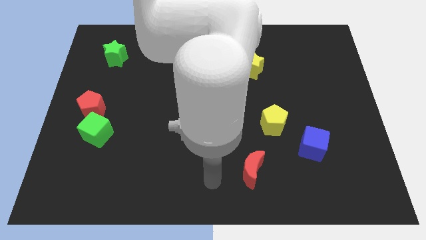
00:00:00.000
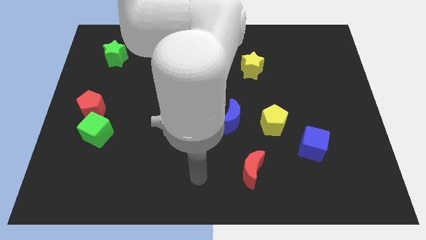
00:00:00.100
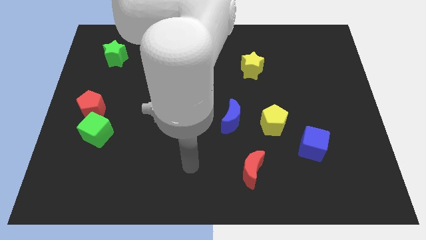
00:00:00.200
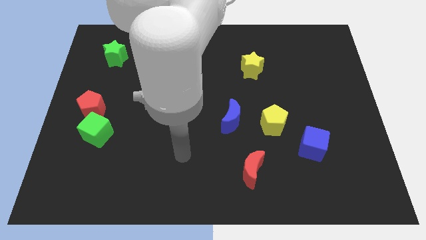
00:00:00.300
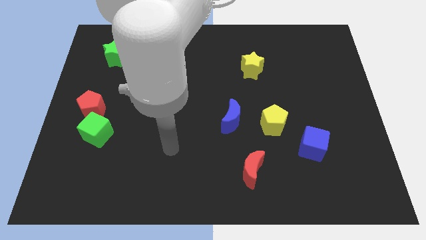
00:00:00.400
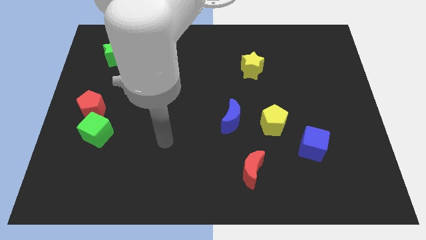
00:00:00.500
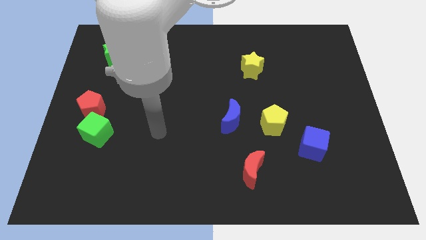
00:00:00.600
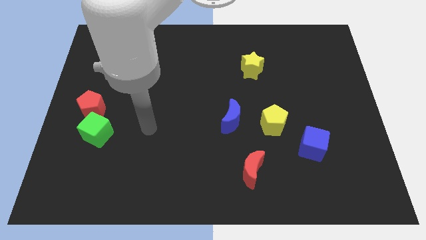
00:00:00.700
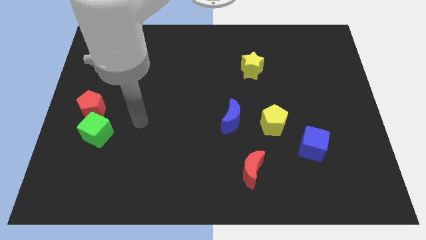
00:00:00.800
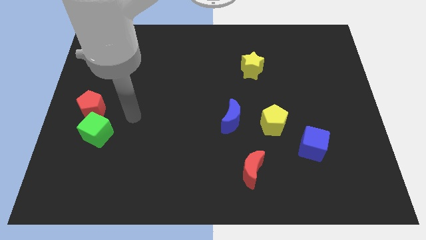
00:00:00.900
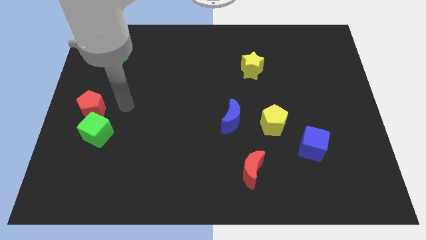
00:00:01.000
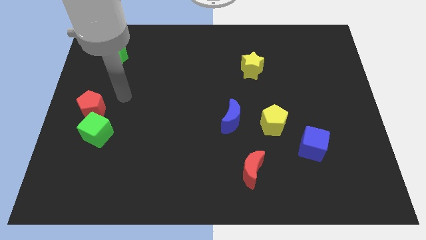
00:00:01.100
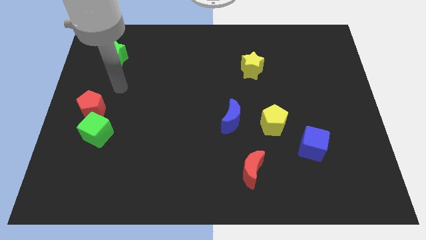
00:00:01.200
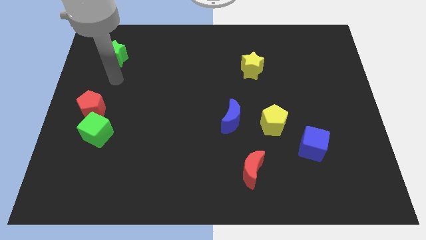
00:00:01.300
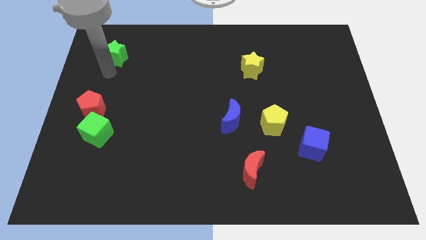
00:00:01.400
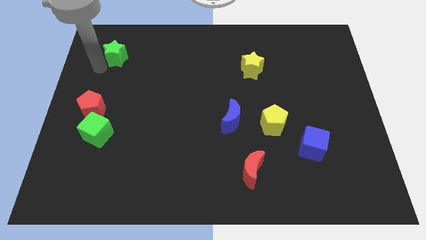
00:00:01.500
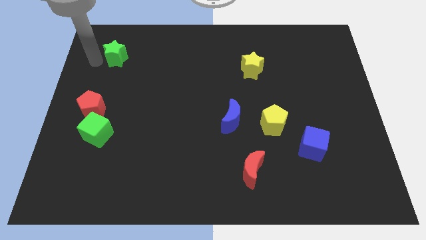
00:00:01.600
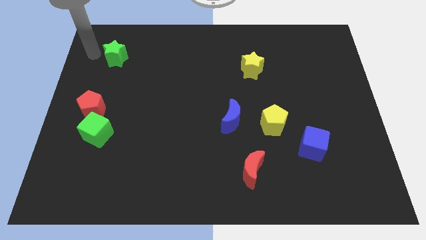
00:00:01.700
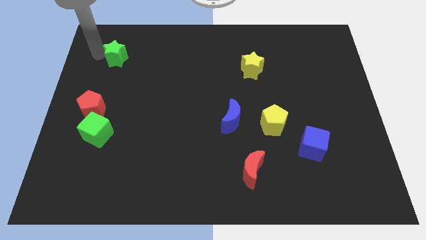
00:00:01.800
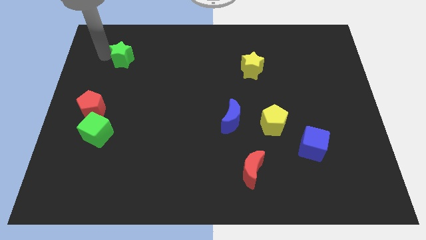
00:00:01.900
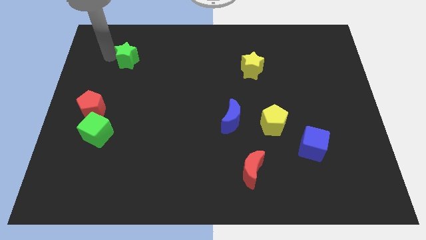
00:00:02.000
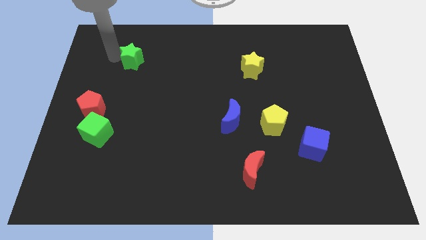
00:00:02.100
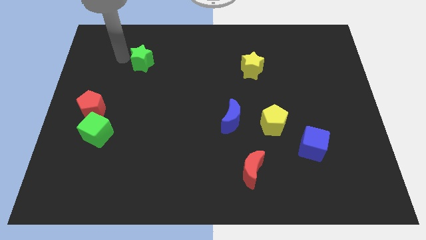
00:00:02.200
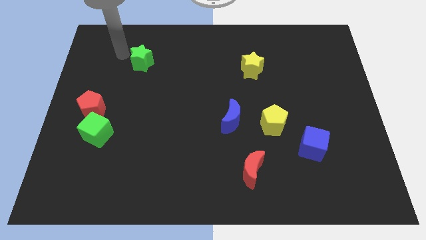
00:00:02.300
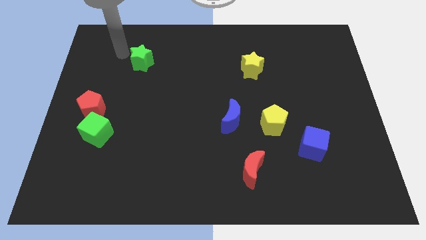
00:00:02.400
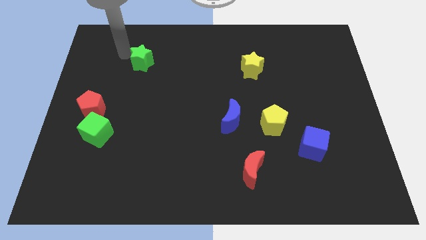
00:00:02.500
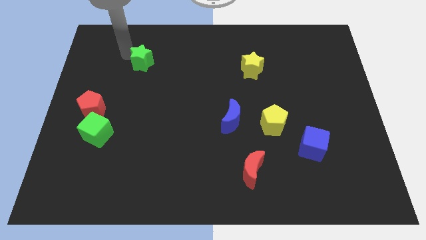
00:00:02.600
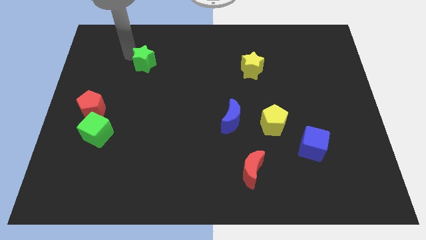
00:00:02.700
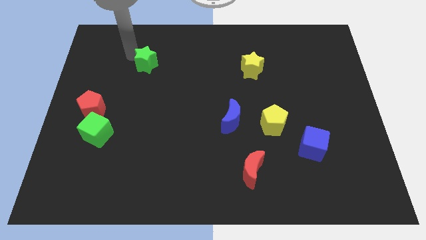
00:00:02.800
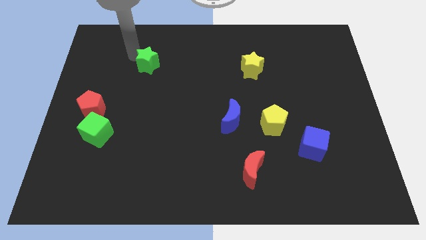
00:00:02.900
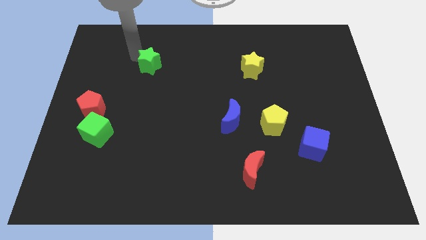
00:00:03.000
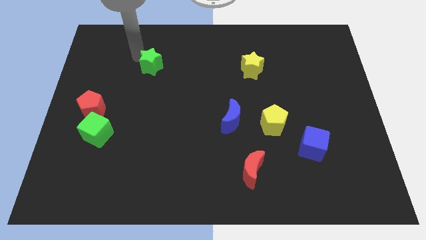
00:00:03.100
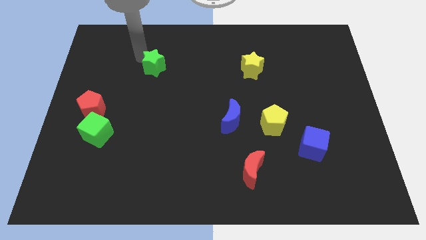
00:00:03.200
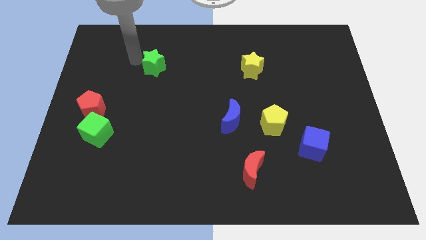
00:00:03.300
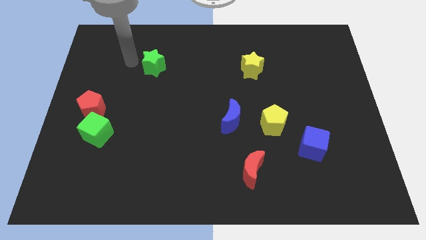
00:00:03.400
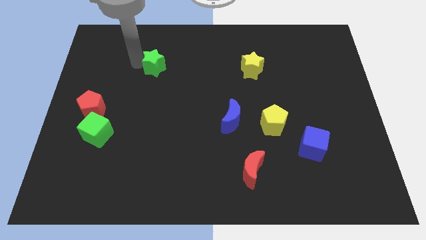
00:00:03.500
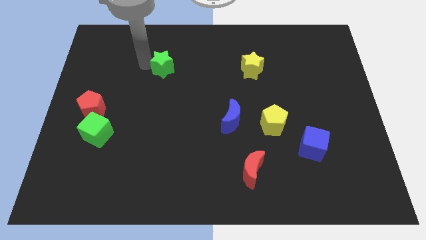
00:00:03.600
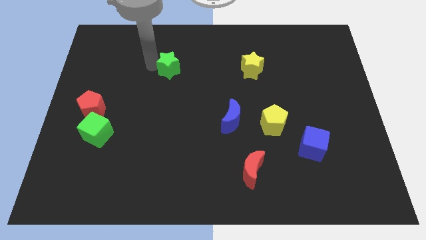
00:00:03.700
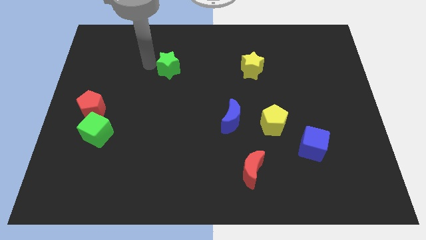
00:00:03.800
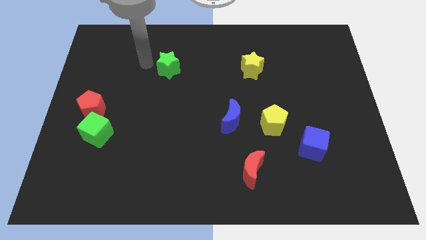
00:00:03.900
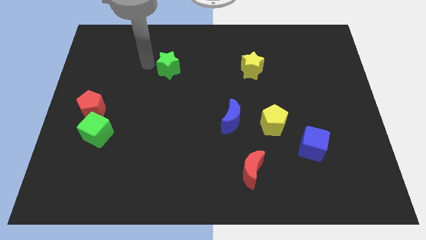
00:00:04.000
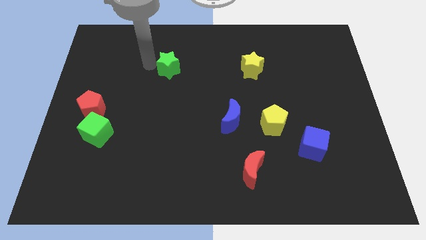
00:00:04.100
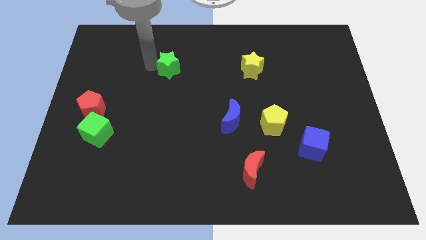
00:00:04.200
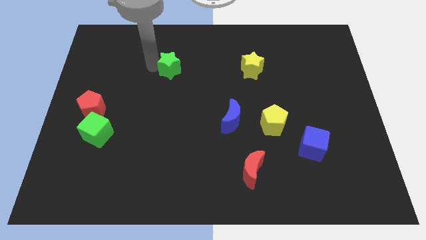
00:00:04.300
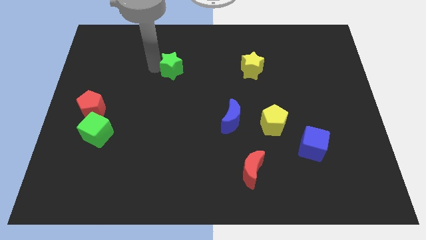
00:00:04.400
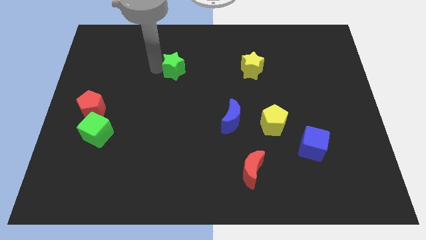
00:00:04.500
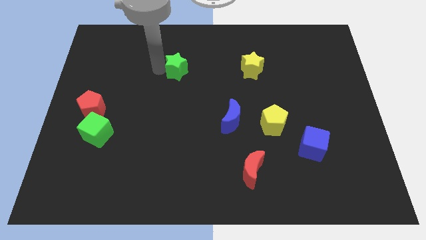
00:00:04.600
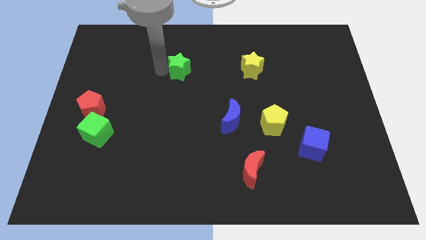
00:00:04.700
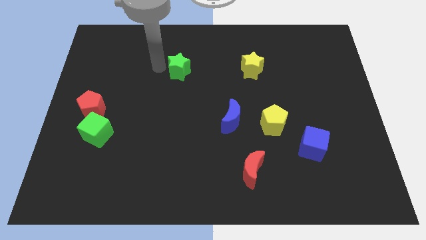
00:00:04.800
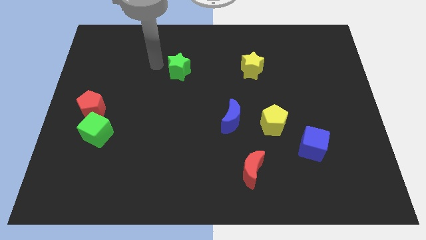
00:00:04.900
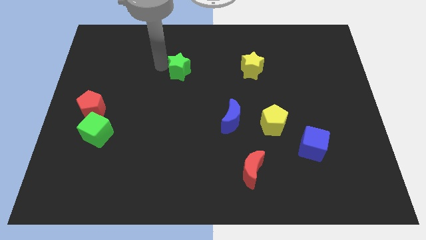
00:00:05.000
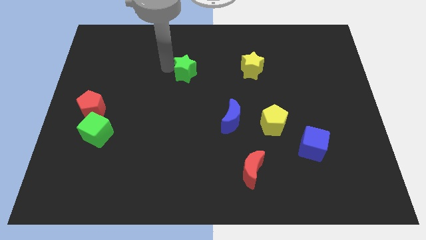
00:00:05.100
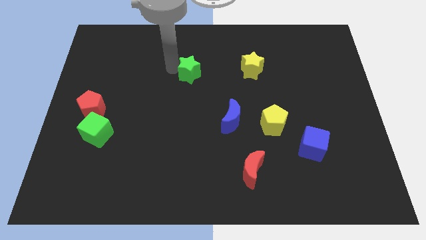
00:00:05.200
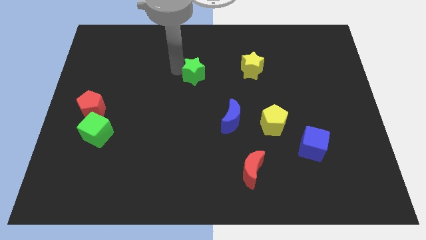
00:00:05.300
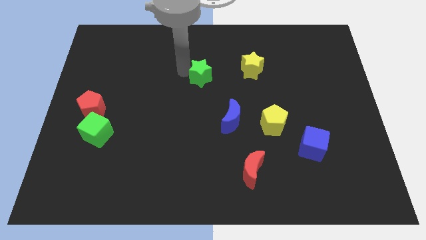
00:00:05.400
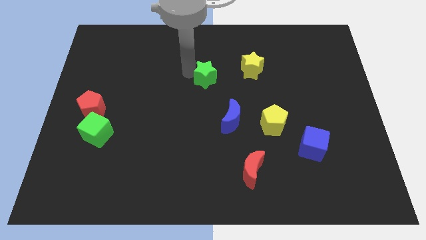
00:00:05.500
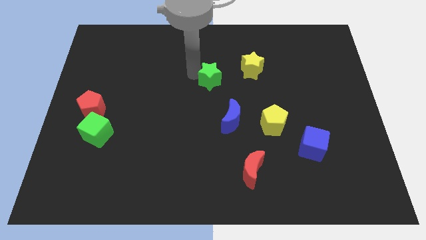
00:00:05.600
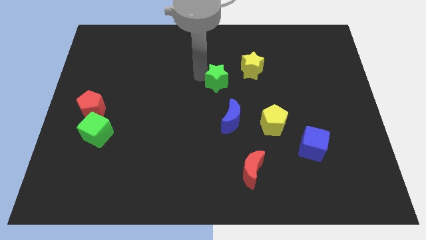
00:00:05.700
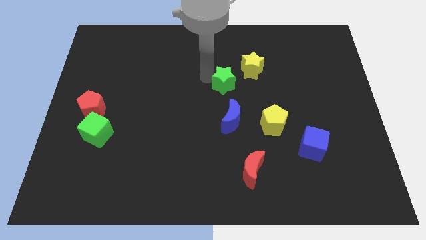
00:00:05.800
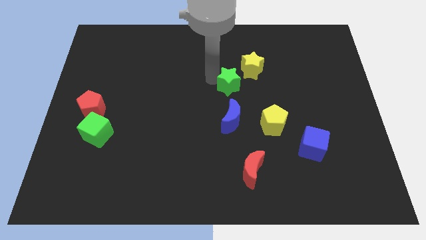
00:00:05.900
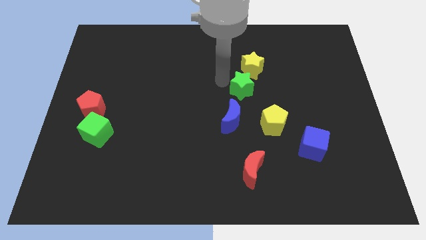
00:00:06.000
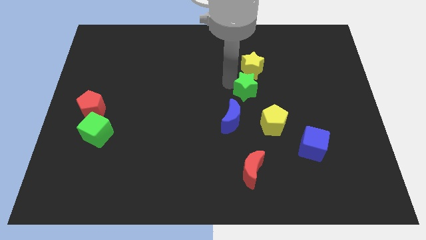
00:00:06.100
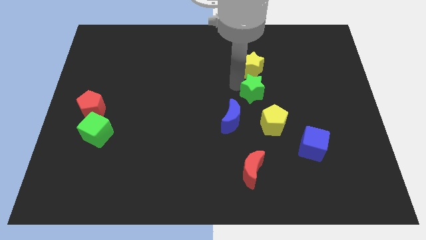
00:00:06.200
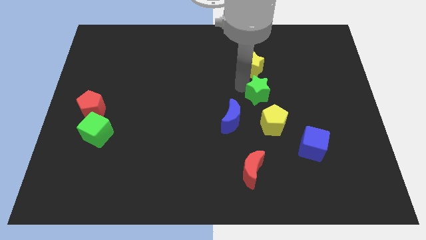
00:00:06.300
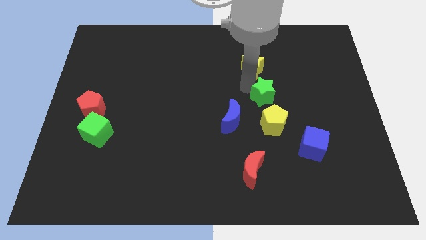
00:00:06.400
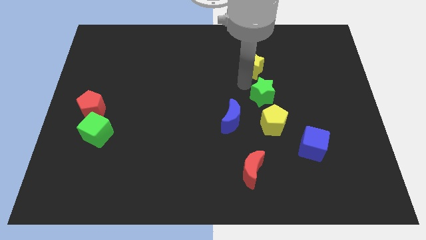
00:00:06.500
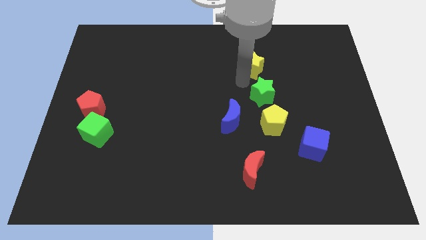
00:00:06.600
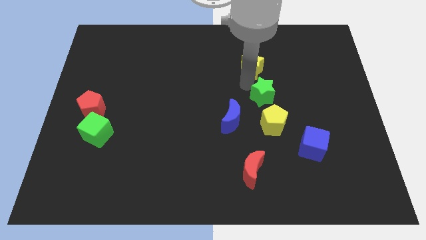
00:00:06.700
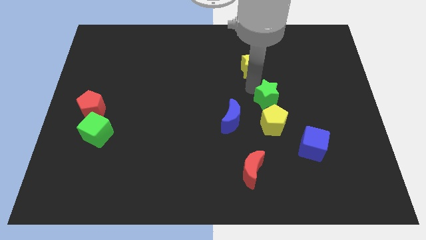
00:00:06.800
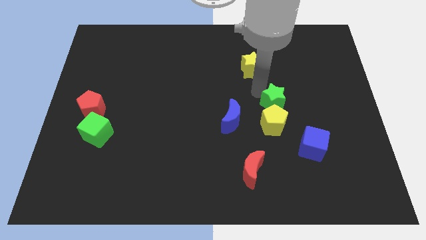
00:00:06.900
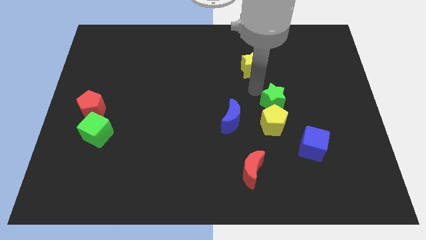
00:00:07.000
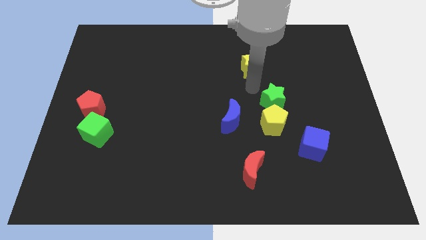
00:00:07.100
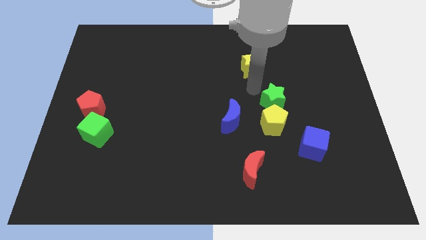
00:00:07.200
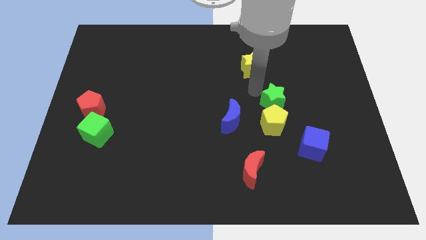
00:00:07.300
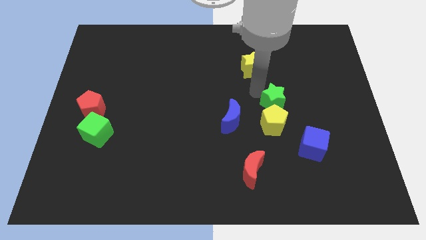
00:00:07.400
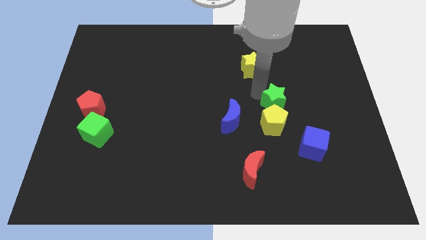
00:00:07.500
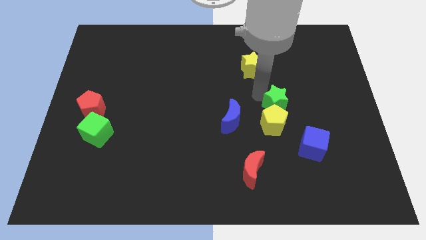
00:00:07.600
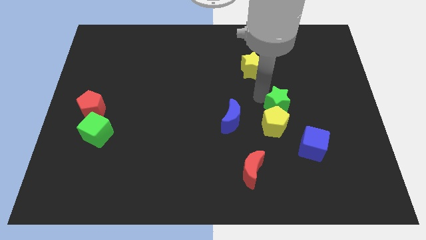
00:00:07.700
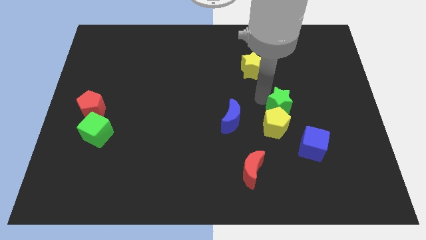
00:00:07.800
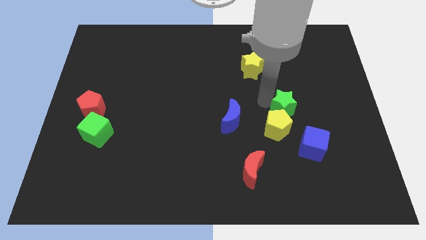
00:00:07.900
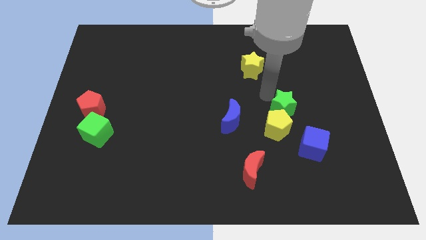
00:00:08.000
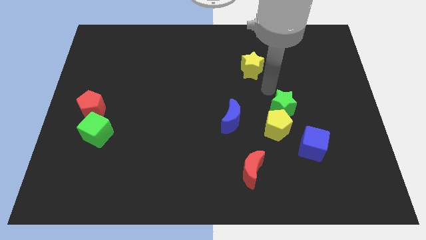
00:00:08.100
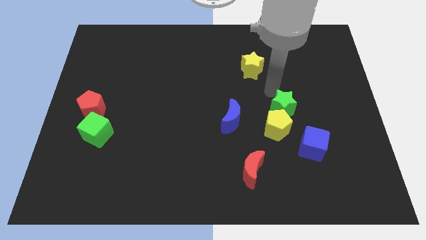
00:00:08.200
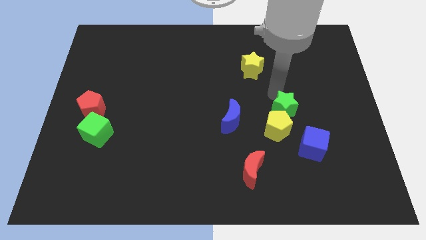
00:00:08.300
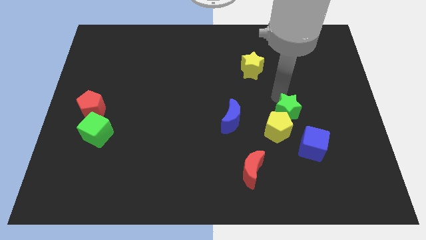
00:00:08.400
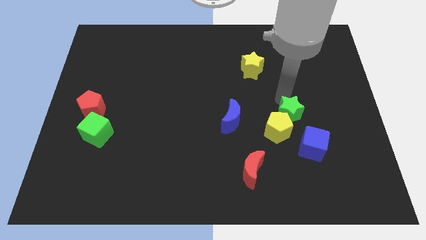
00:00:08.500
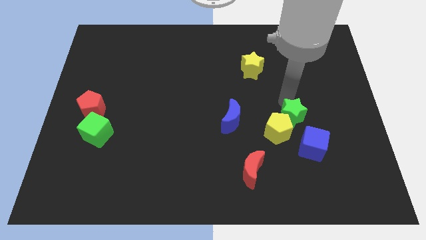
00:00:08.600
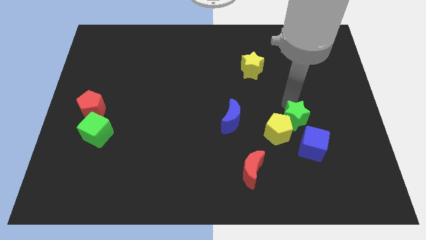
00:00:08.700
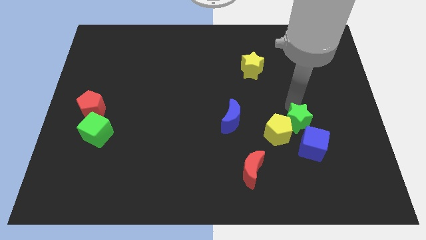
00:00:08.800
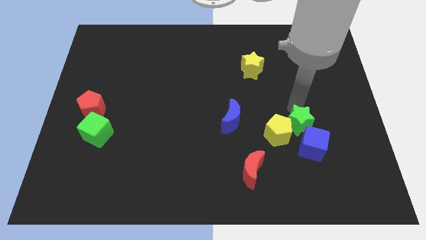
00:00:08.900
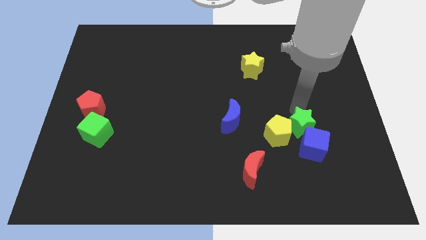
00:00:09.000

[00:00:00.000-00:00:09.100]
put the green star to the blue cube
